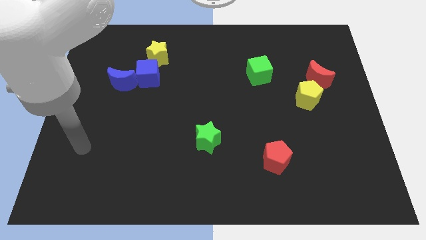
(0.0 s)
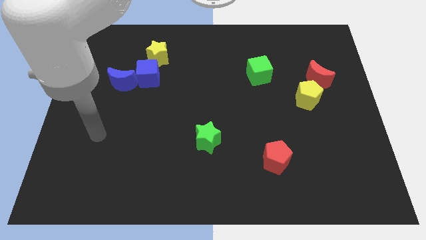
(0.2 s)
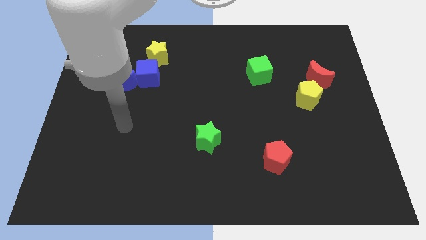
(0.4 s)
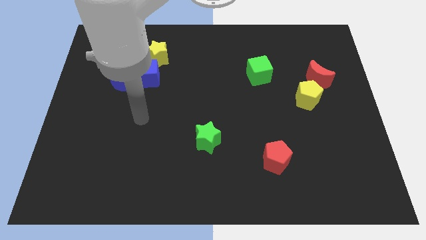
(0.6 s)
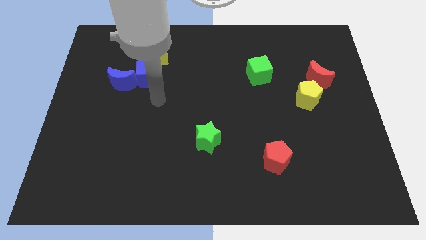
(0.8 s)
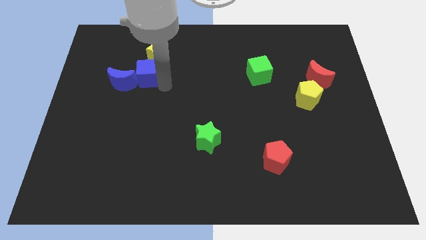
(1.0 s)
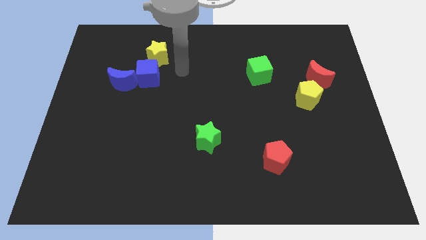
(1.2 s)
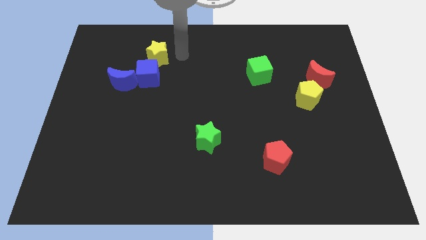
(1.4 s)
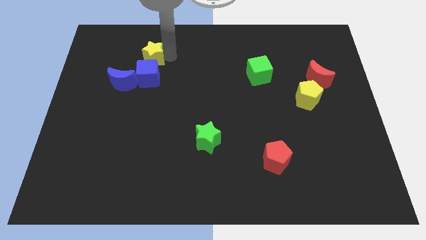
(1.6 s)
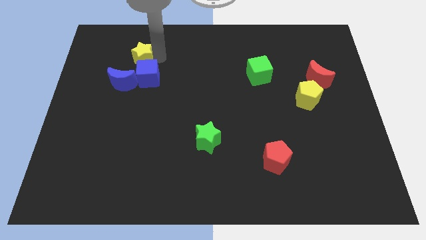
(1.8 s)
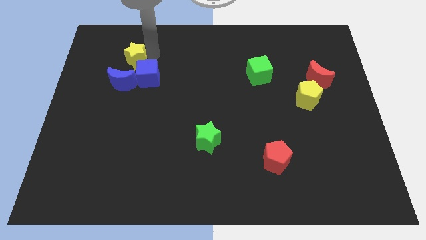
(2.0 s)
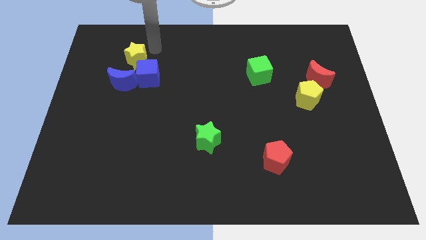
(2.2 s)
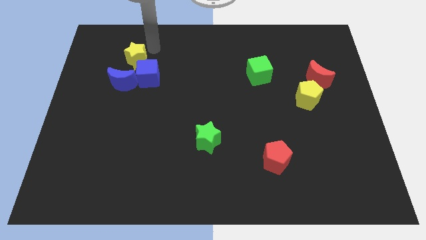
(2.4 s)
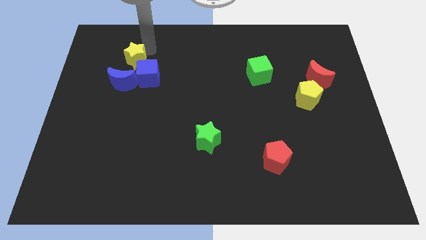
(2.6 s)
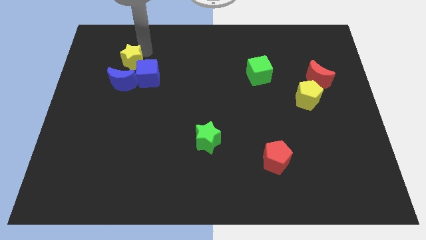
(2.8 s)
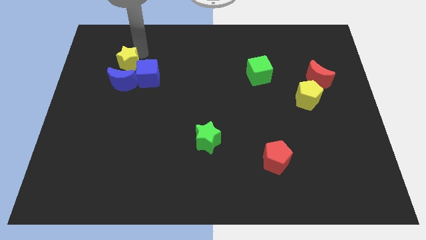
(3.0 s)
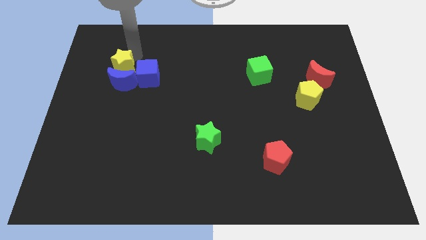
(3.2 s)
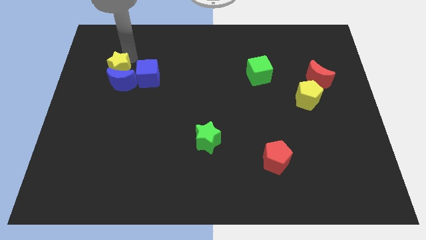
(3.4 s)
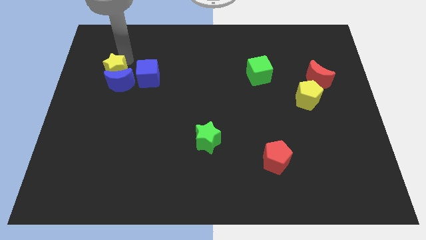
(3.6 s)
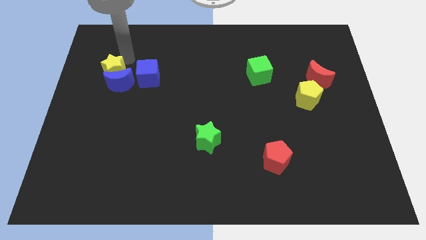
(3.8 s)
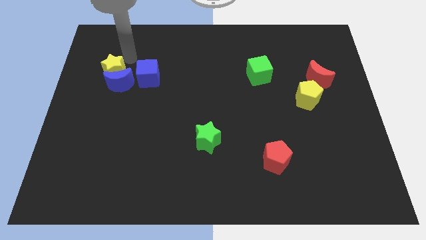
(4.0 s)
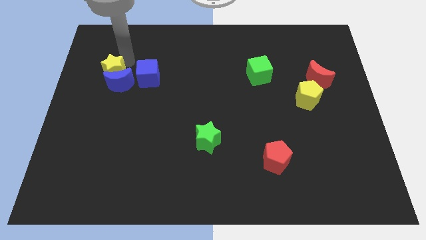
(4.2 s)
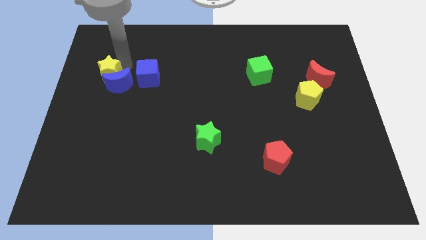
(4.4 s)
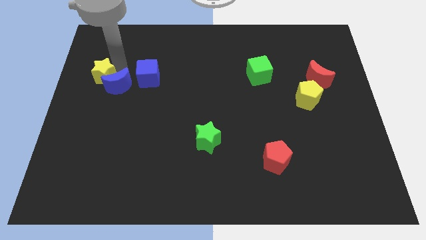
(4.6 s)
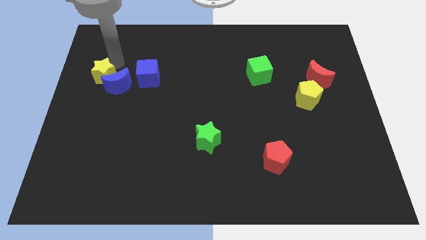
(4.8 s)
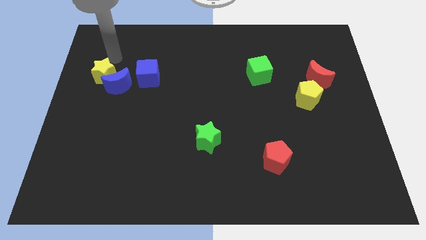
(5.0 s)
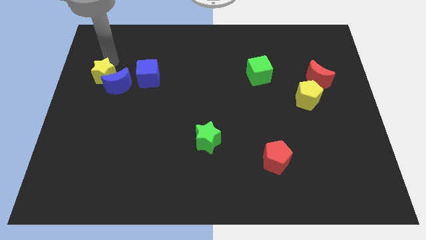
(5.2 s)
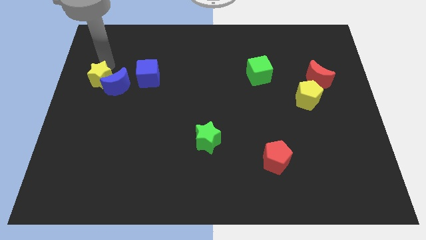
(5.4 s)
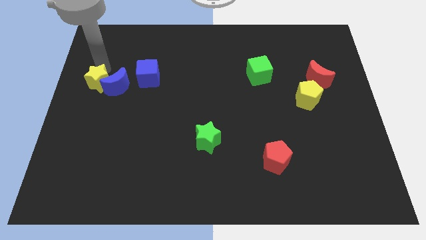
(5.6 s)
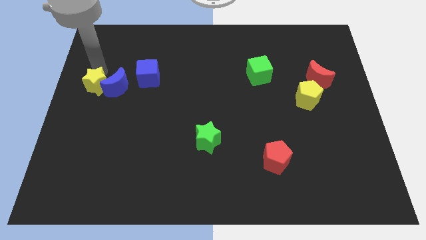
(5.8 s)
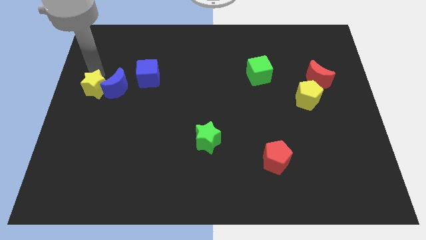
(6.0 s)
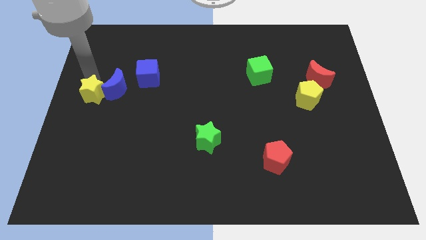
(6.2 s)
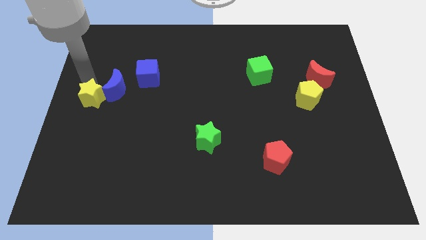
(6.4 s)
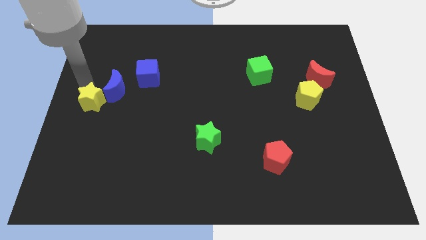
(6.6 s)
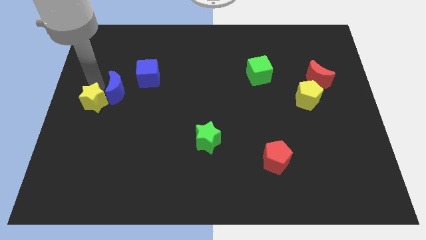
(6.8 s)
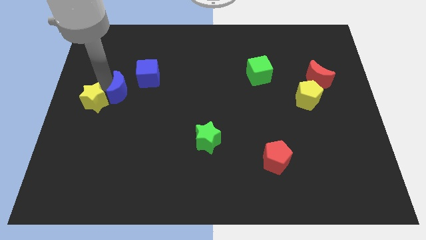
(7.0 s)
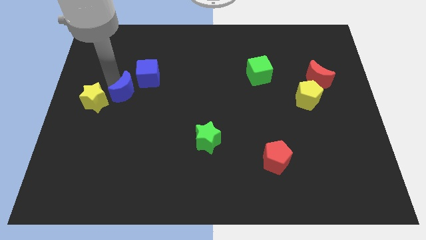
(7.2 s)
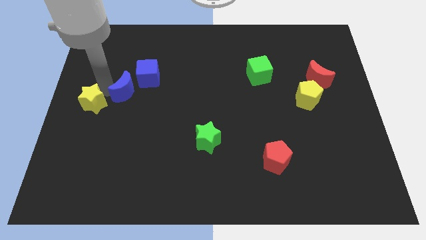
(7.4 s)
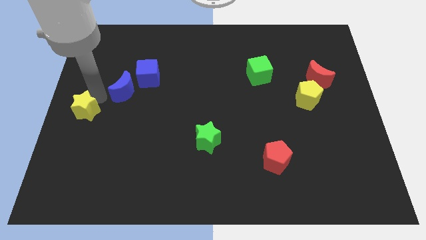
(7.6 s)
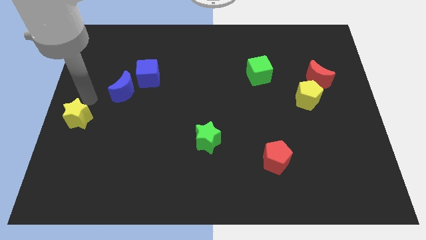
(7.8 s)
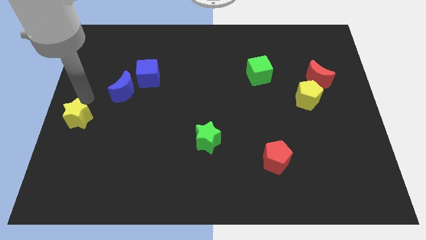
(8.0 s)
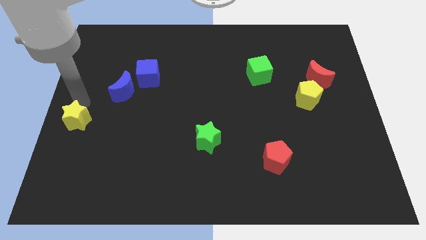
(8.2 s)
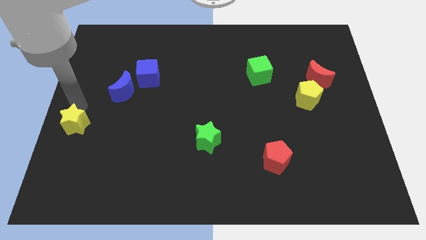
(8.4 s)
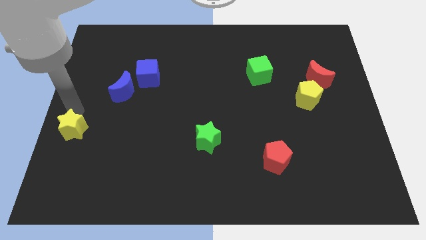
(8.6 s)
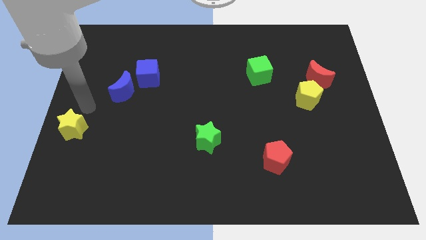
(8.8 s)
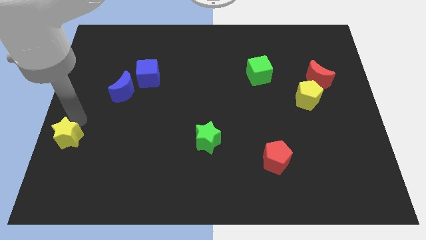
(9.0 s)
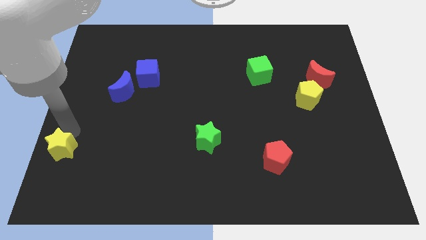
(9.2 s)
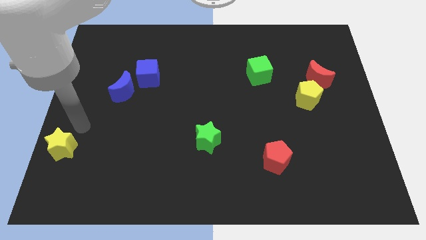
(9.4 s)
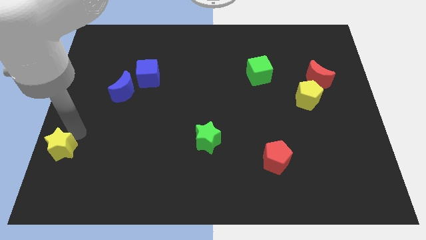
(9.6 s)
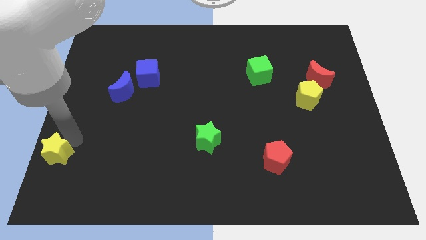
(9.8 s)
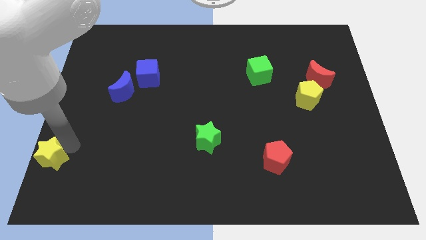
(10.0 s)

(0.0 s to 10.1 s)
put the yellow star to the bottom left
